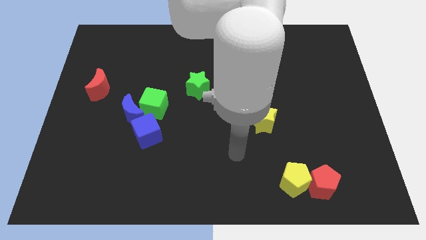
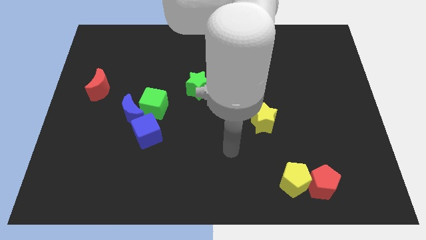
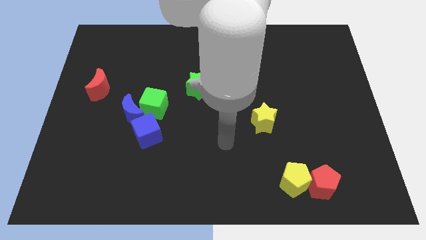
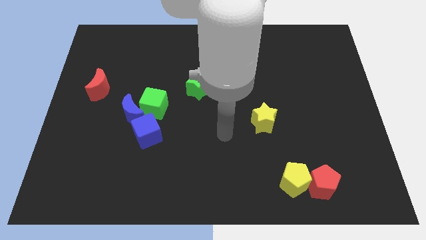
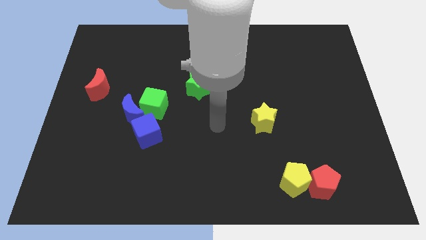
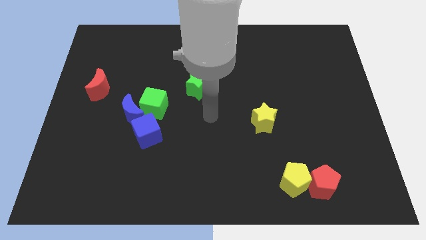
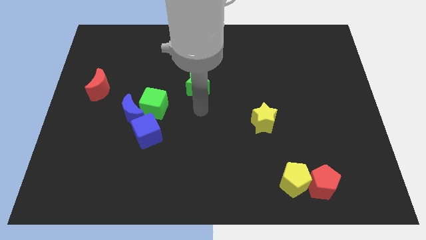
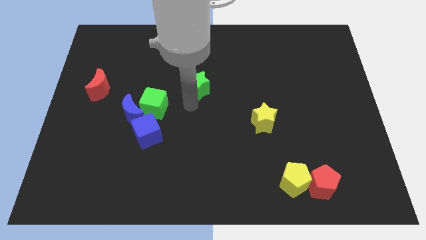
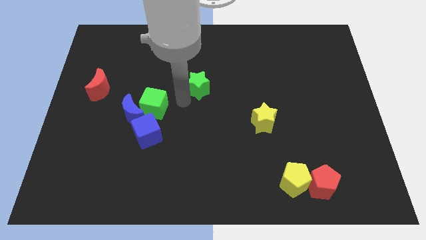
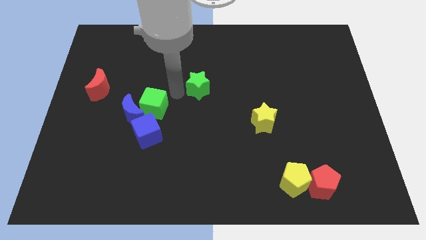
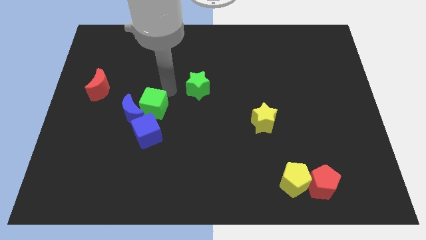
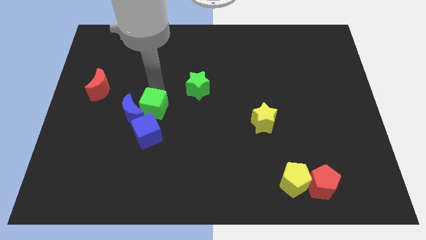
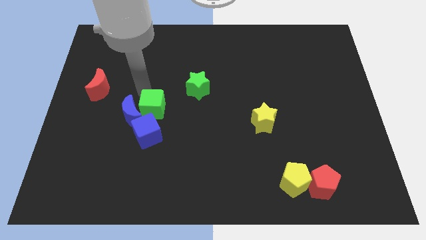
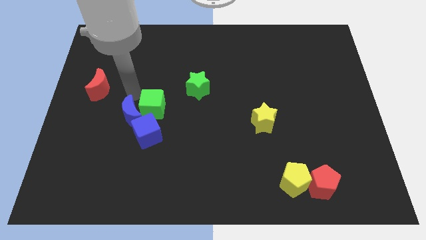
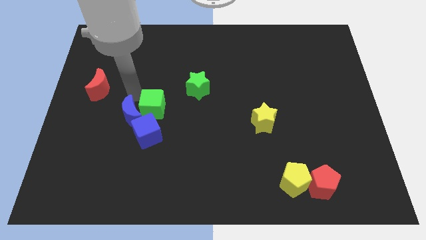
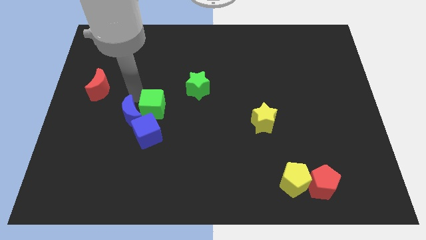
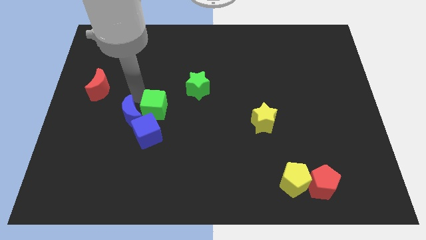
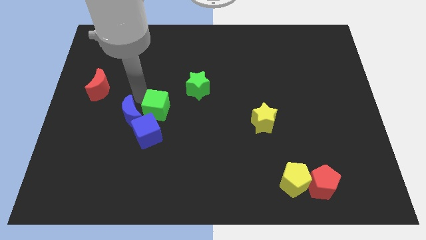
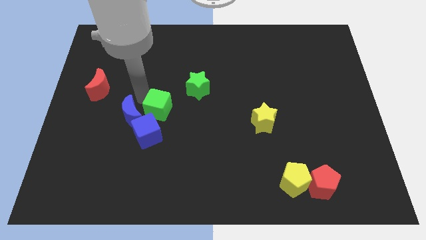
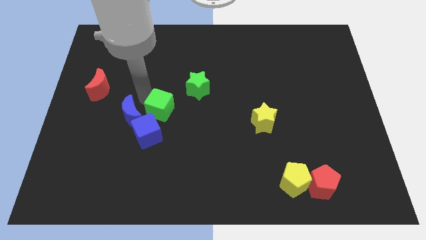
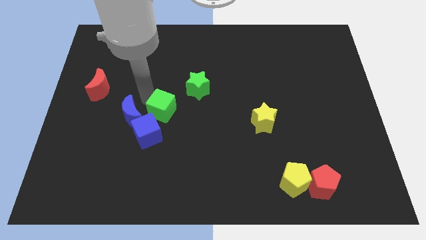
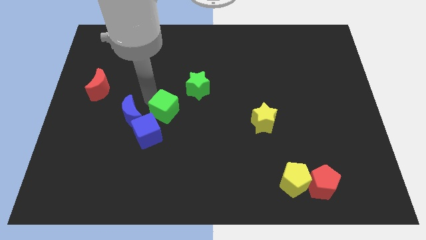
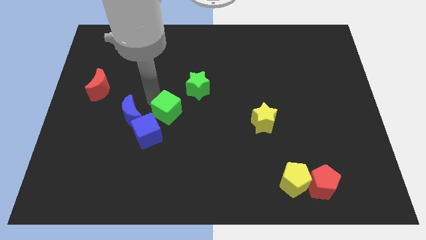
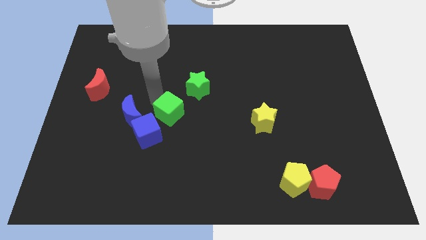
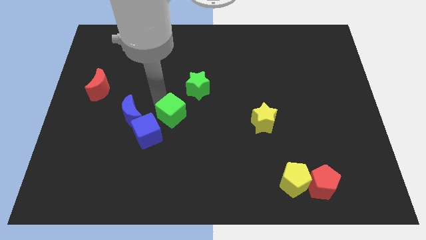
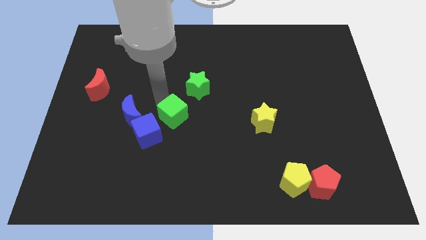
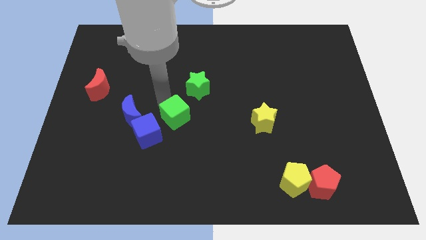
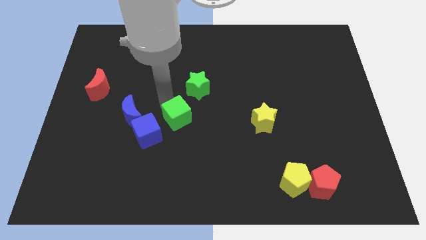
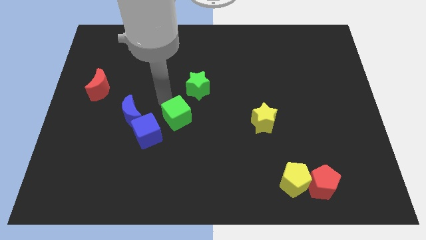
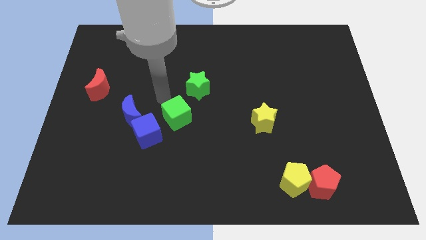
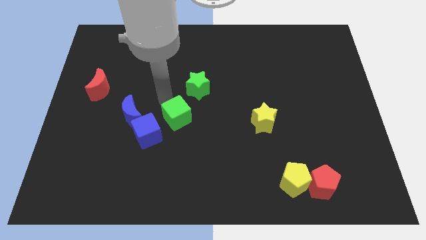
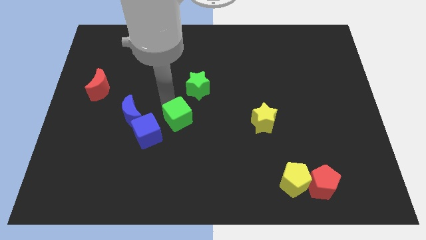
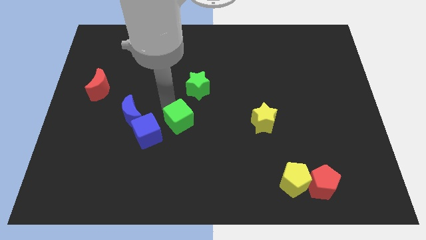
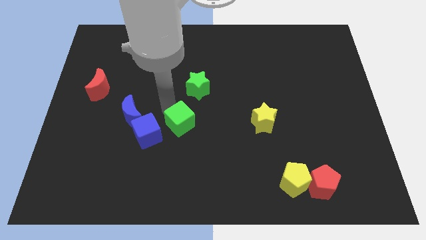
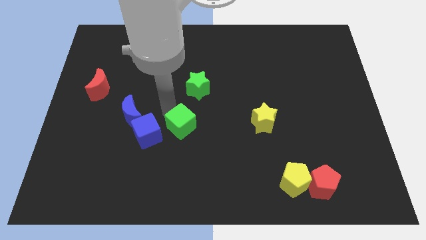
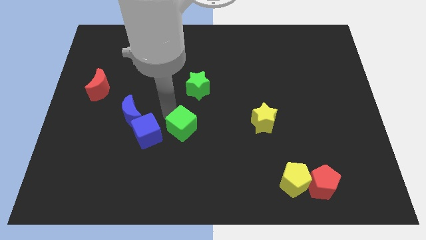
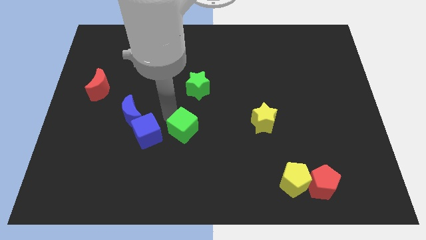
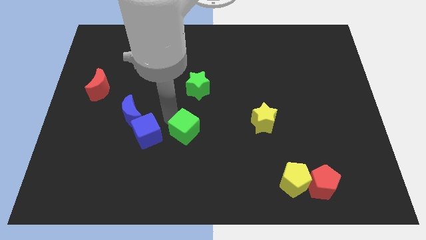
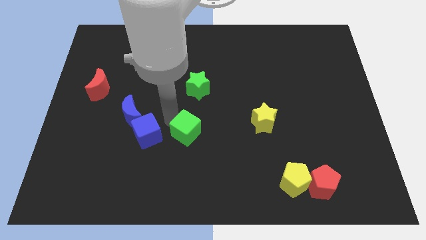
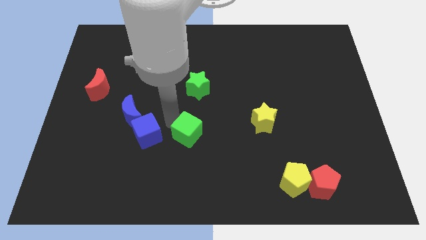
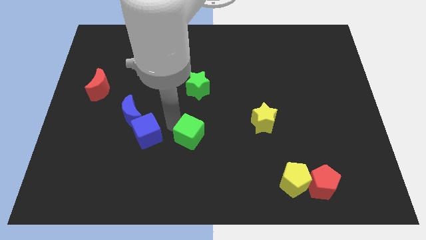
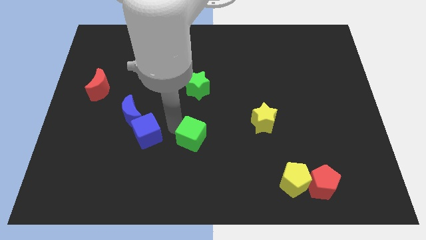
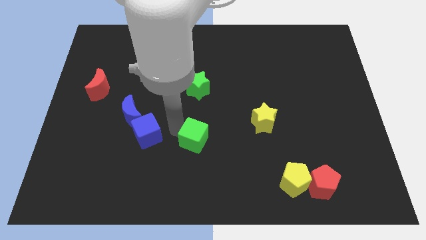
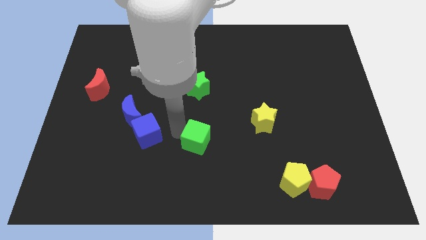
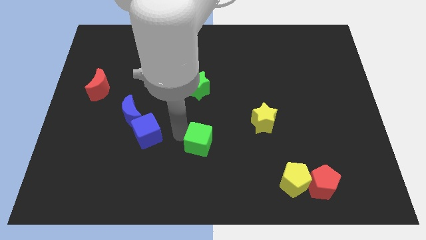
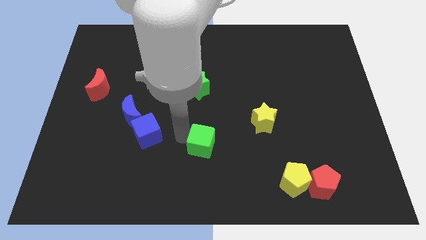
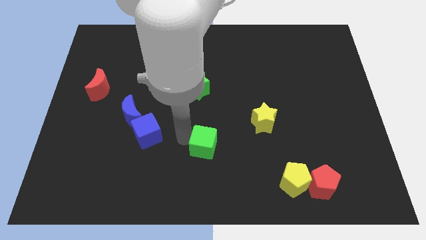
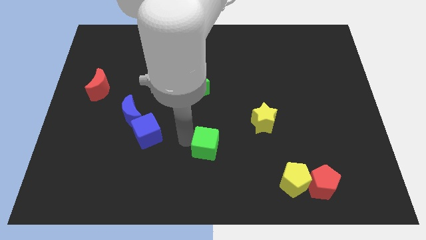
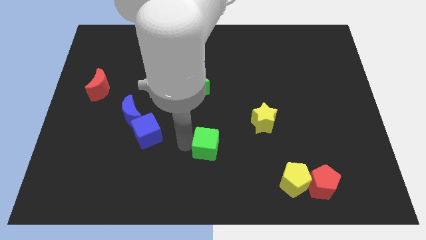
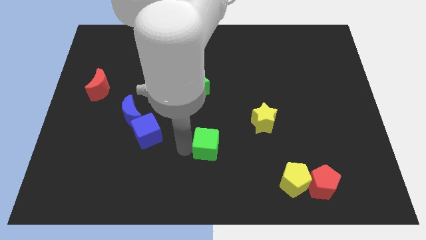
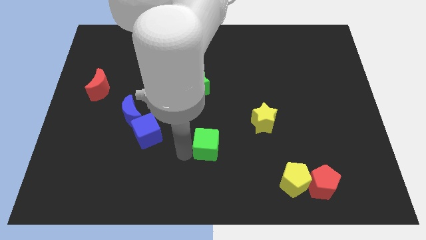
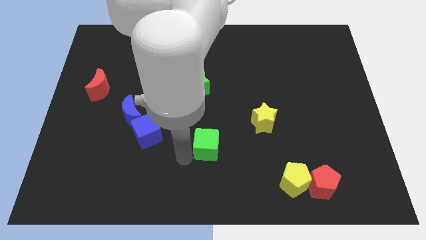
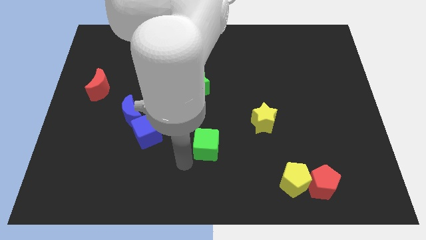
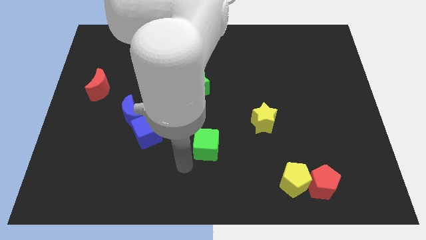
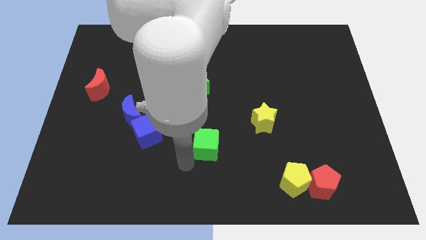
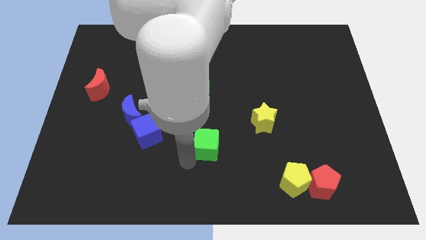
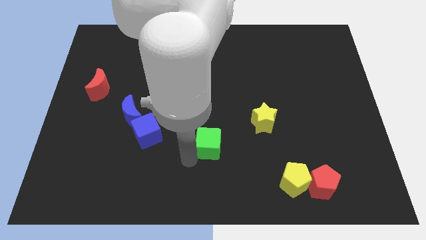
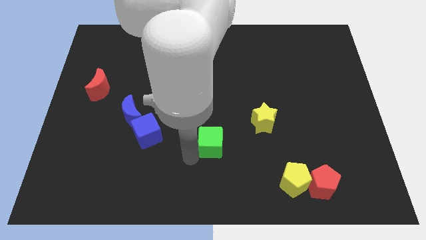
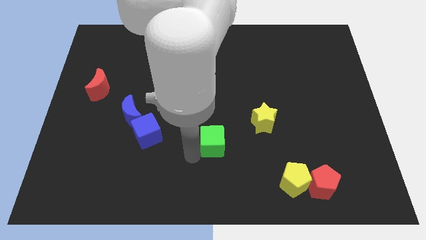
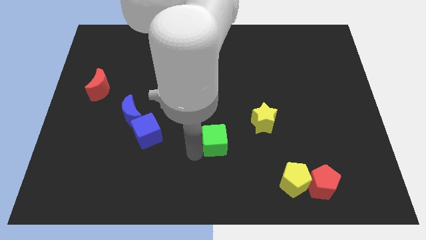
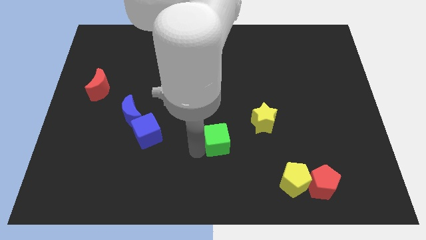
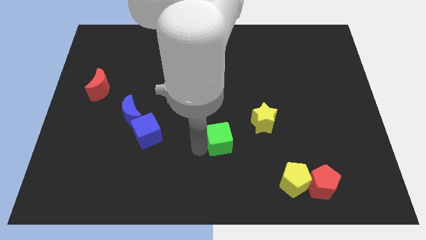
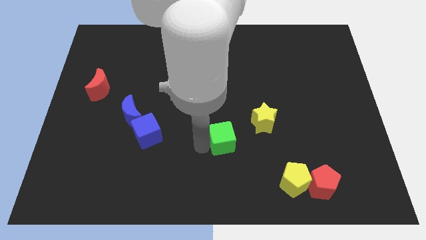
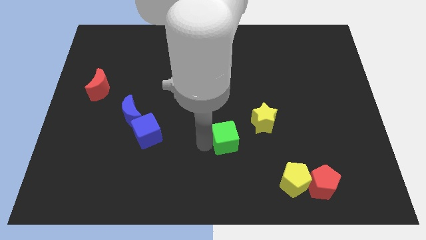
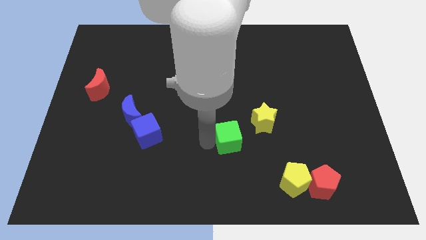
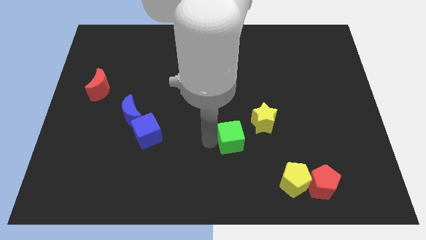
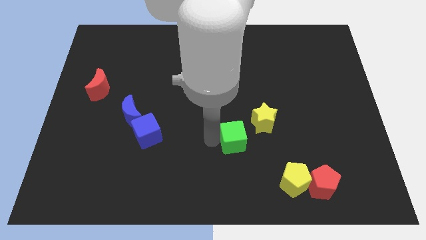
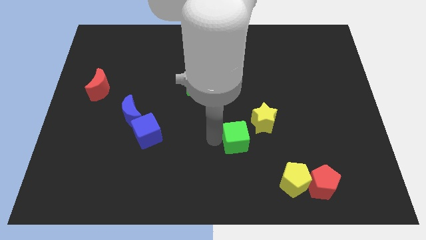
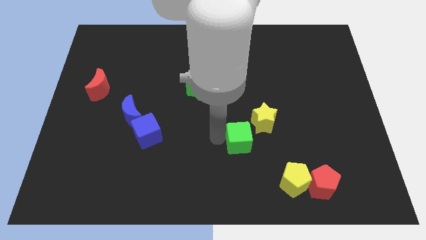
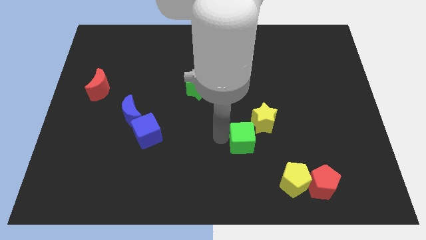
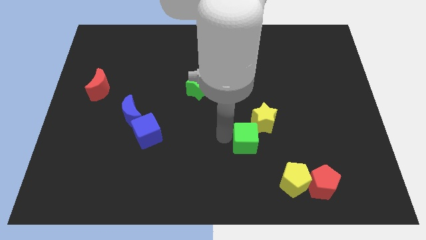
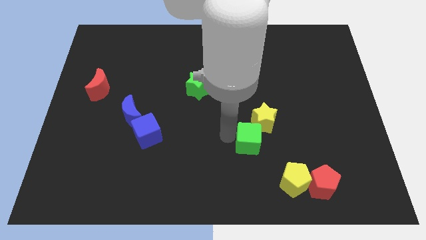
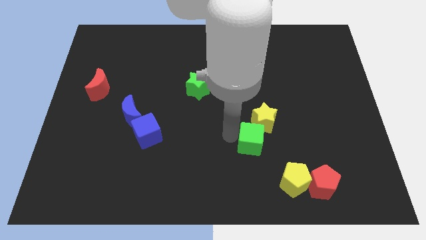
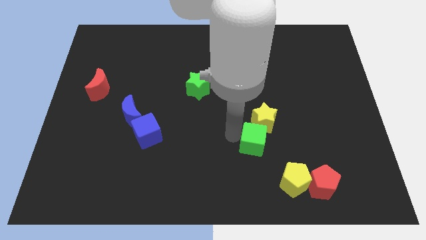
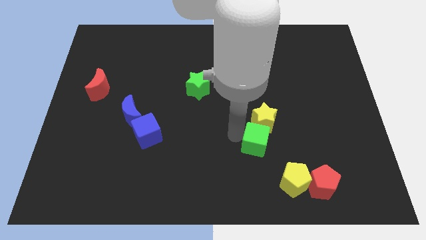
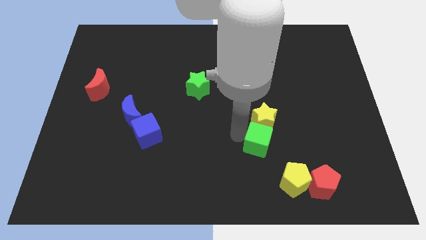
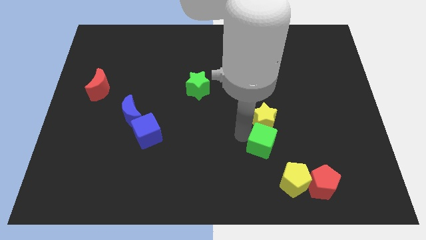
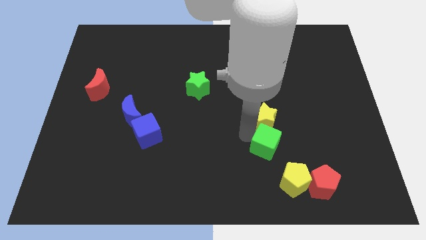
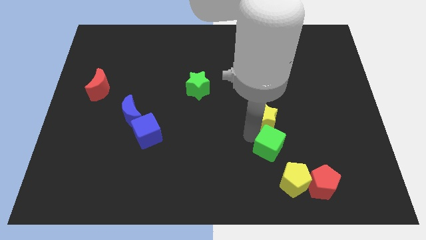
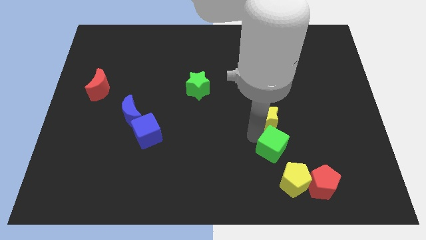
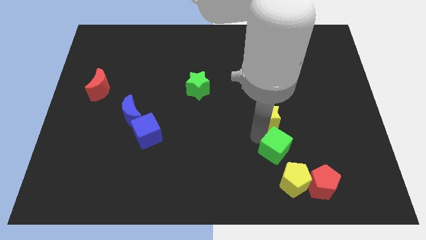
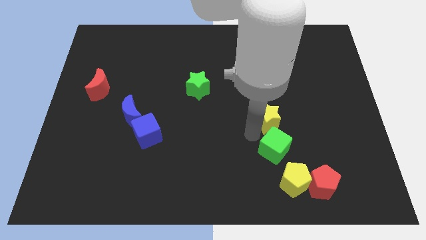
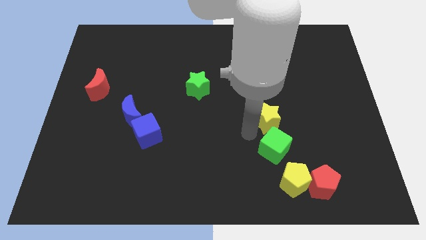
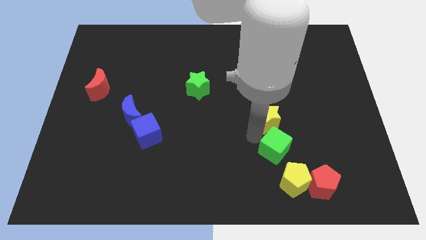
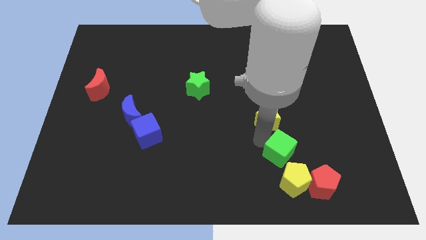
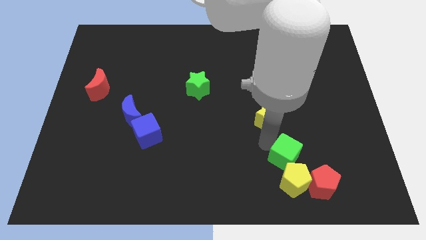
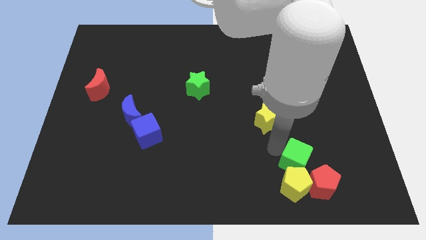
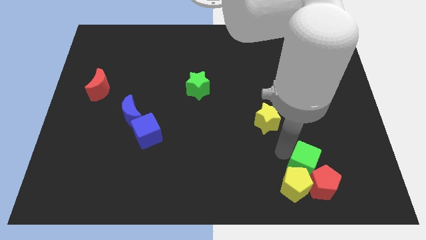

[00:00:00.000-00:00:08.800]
slide the green cube towards the red pentagon
